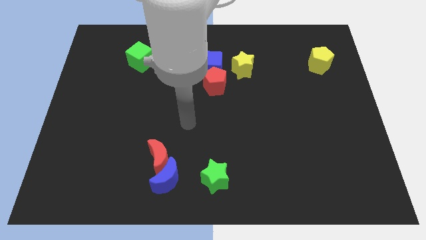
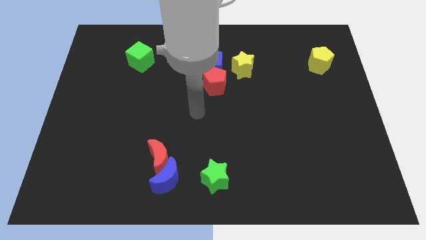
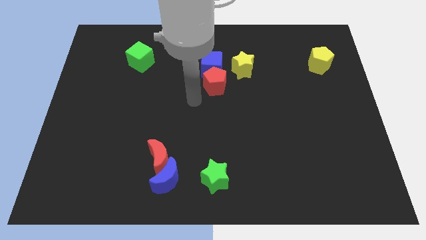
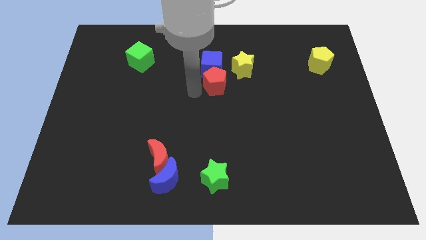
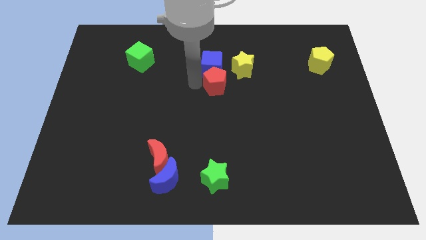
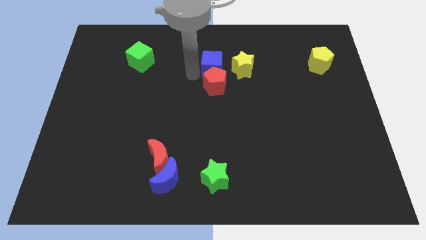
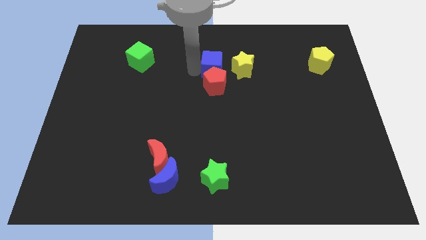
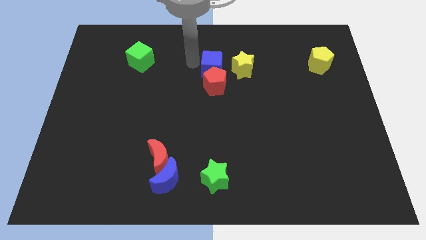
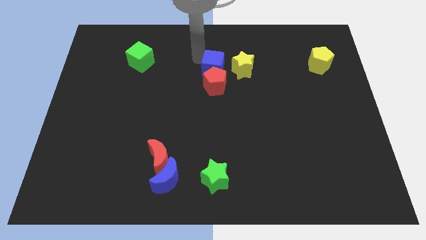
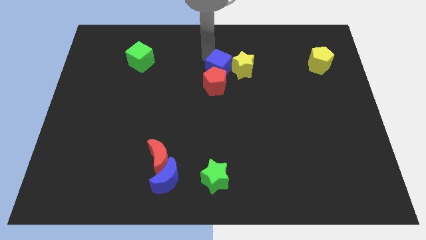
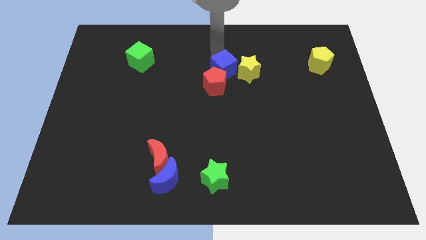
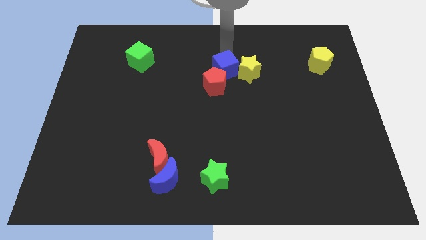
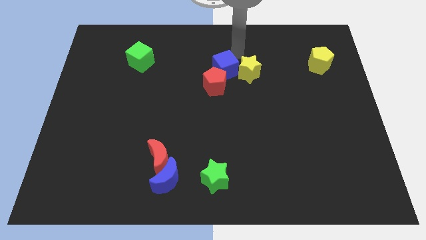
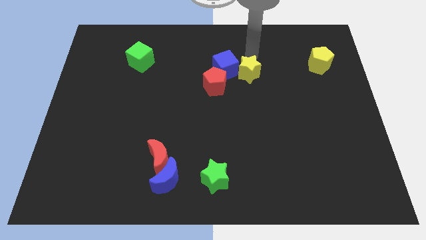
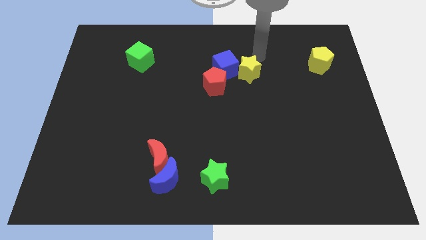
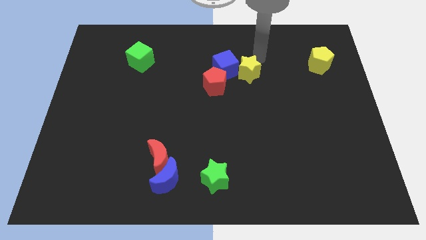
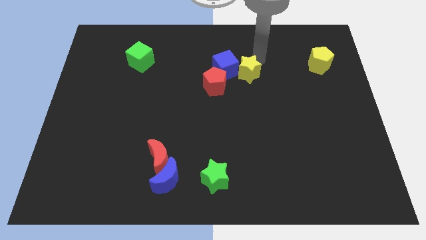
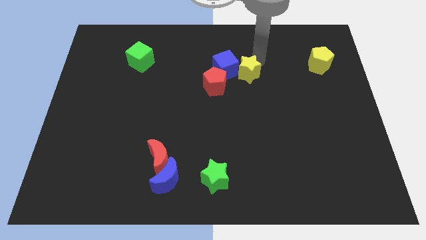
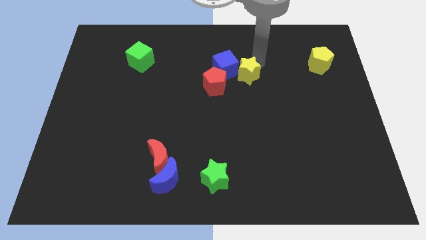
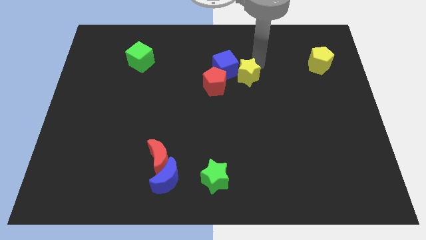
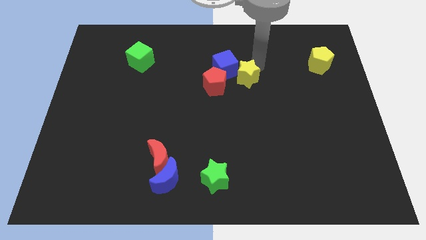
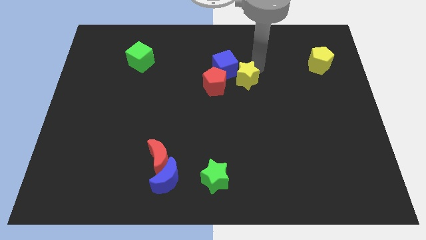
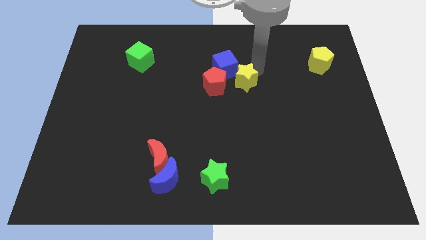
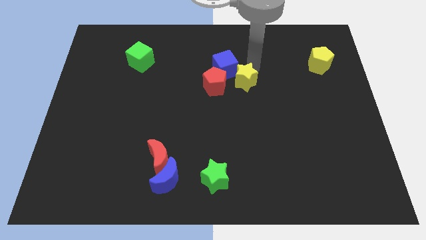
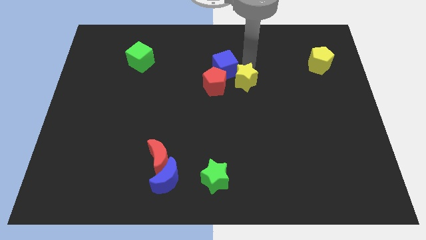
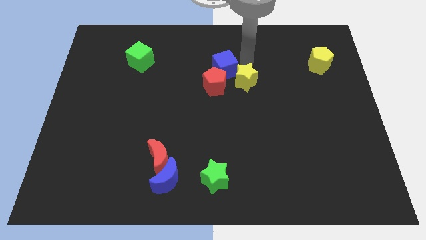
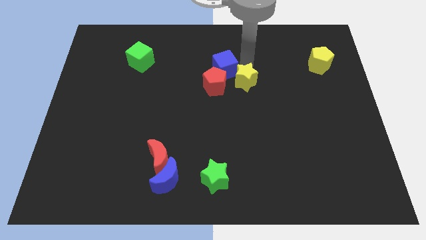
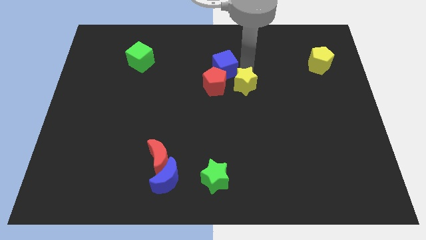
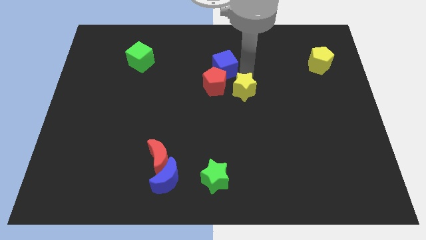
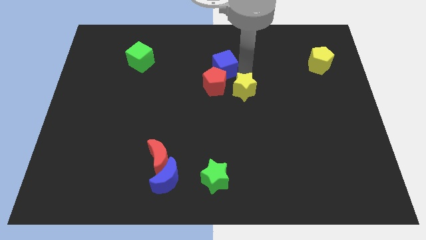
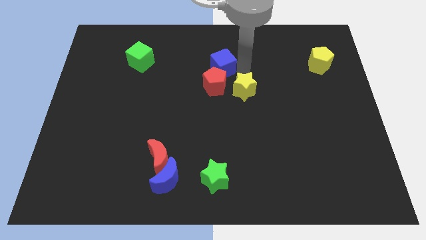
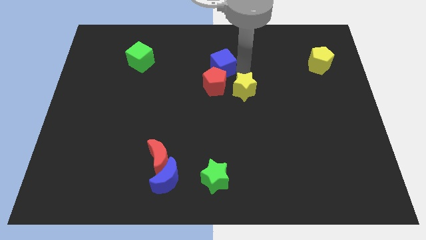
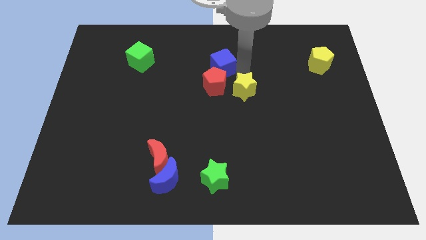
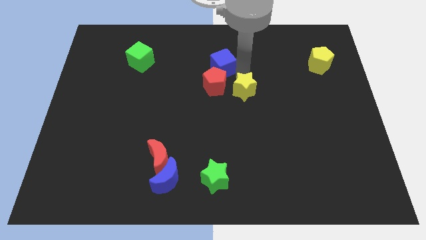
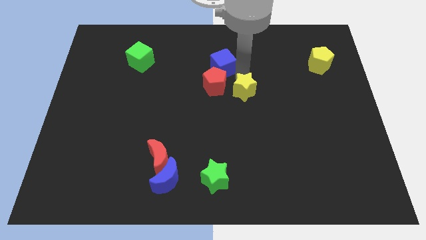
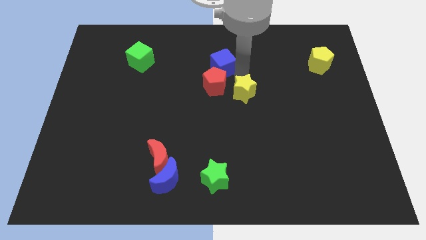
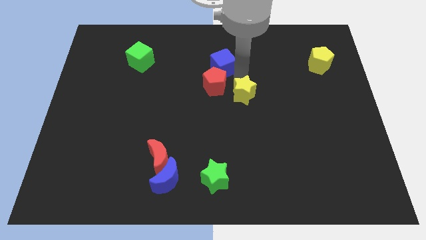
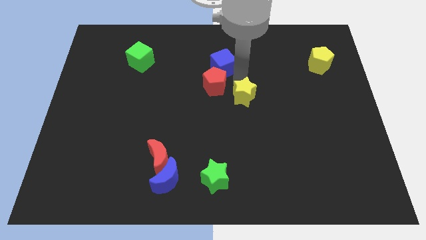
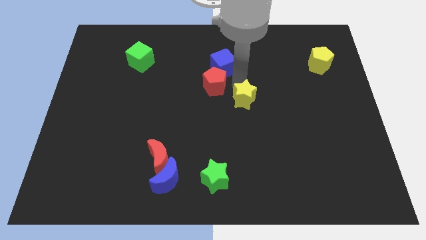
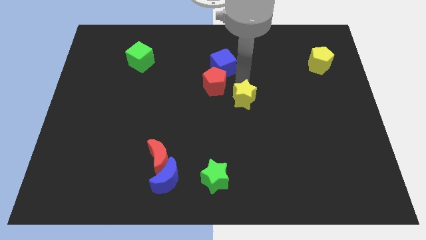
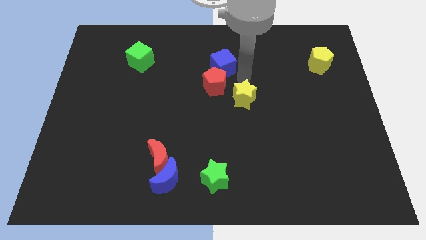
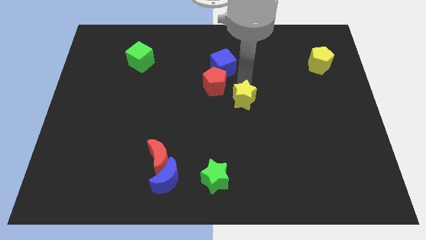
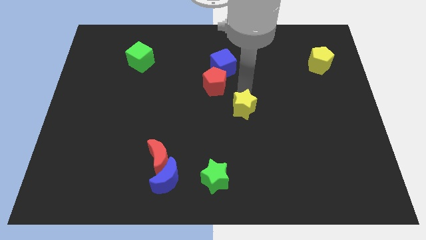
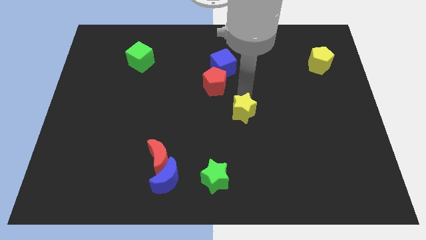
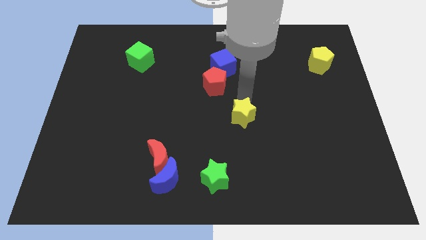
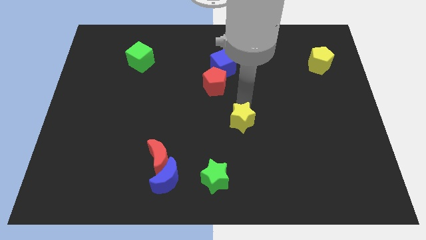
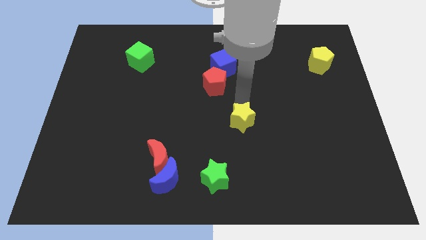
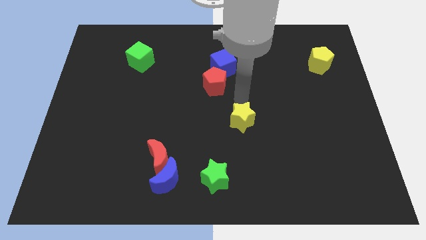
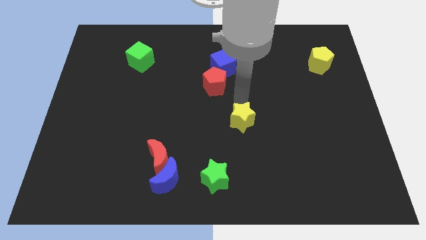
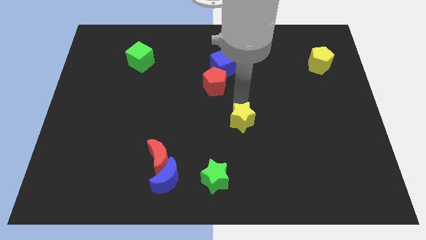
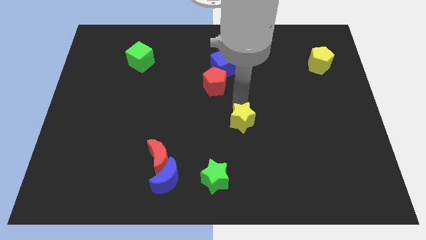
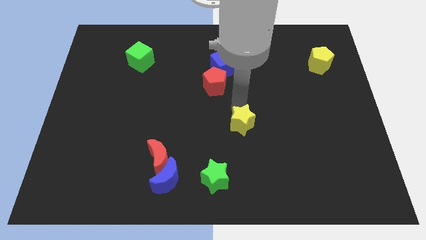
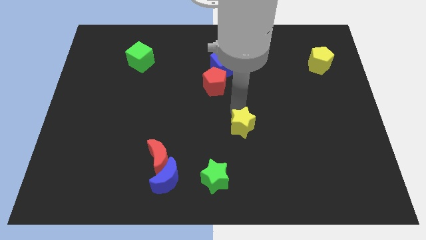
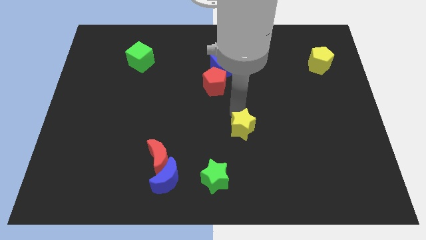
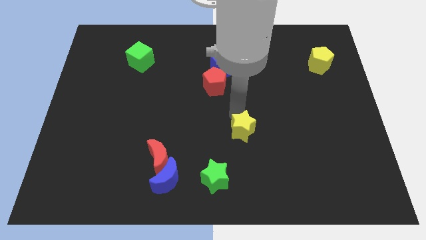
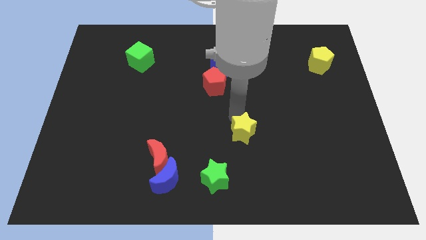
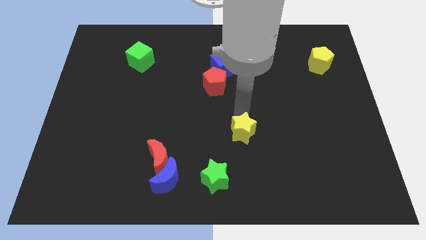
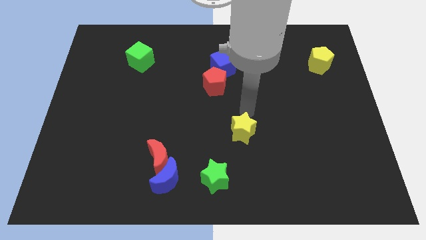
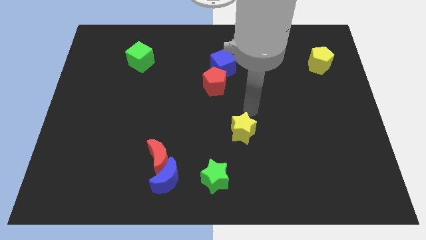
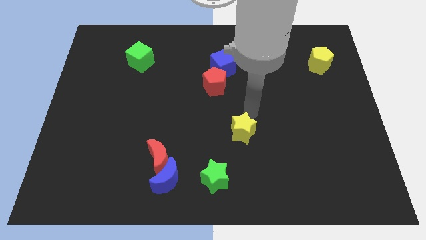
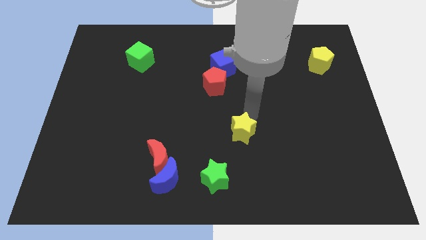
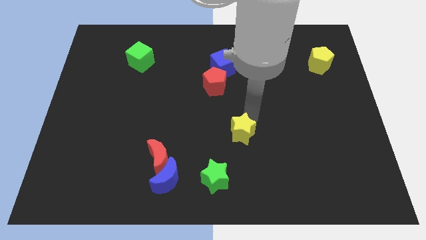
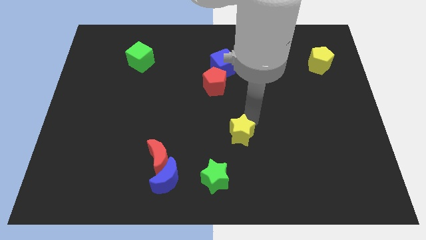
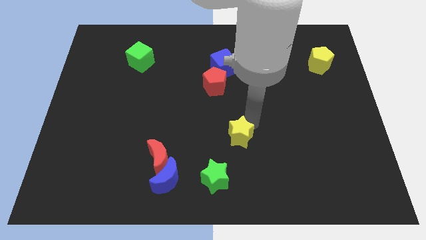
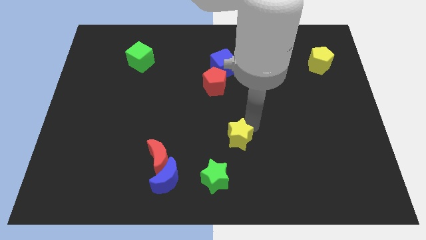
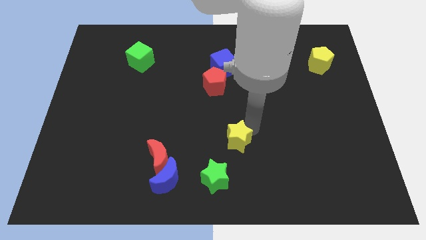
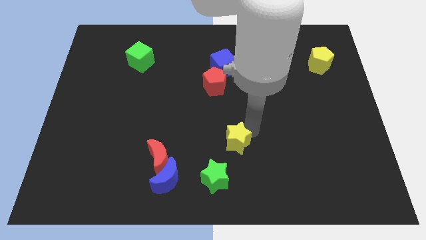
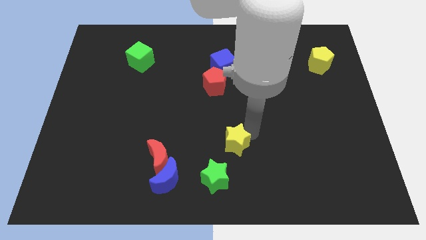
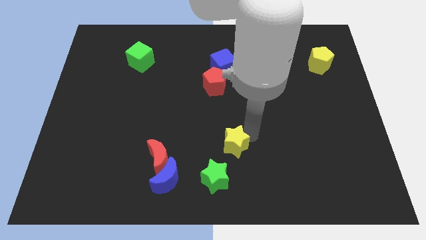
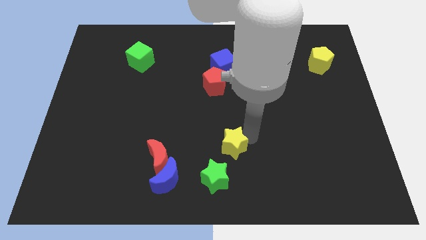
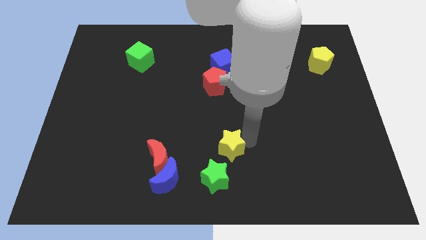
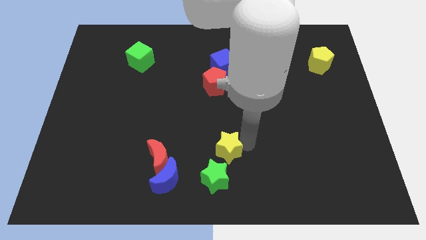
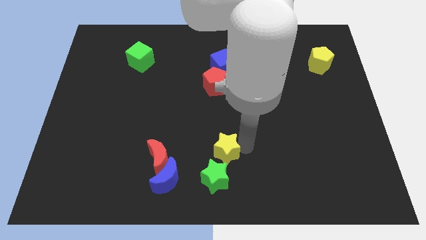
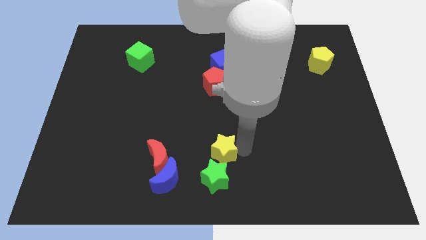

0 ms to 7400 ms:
put the yellow star next to the green star
